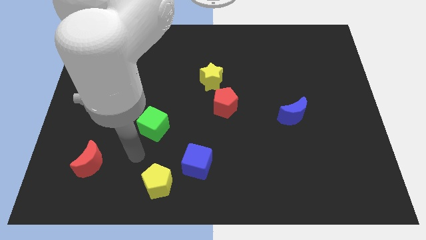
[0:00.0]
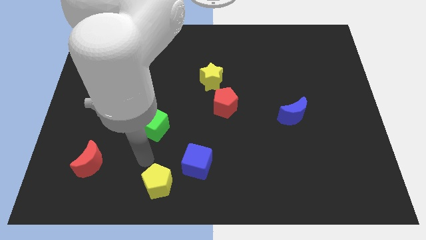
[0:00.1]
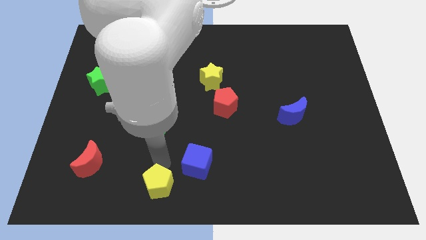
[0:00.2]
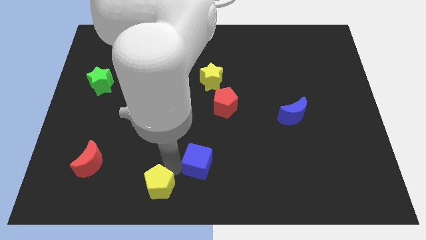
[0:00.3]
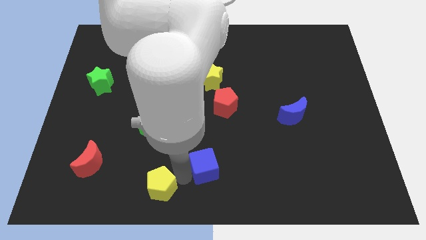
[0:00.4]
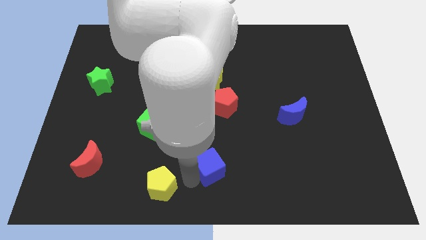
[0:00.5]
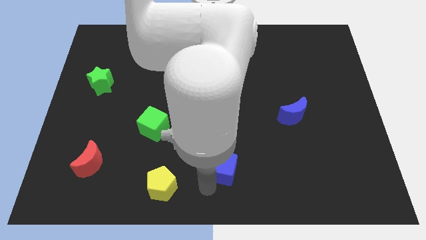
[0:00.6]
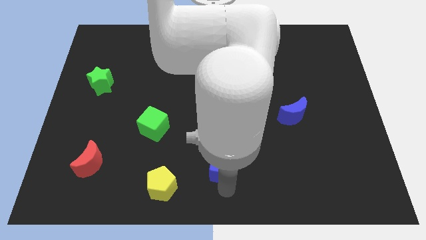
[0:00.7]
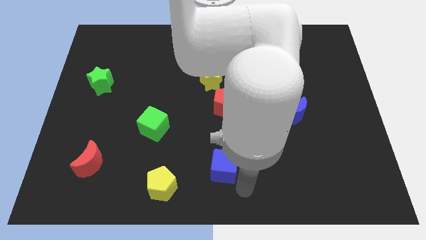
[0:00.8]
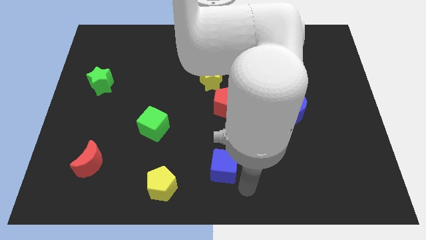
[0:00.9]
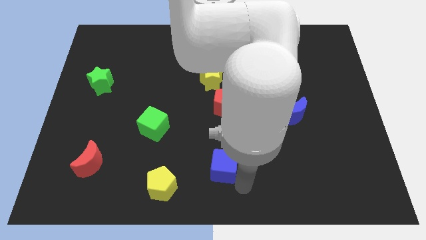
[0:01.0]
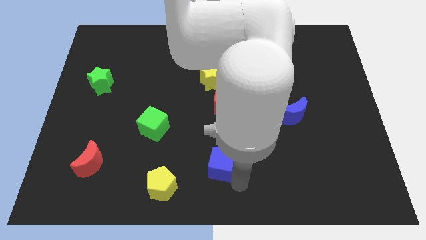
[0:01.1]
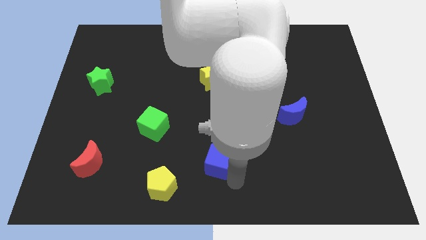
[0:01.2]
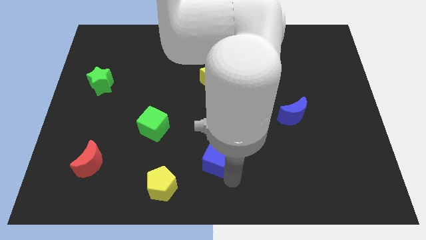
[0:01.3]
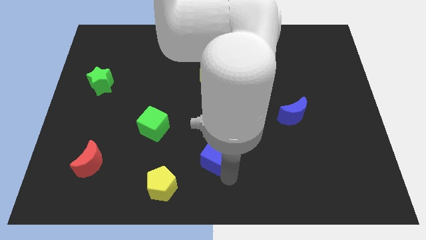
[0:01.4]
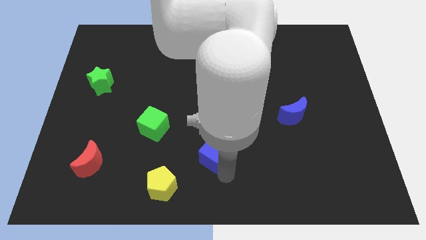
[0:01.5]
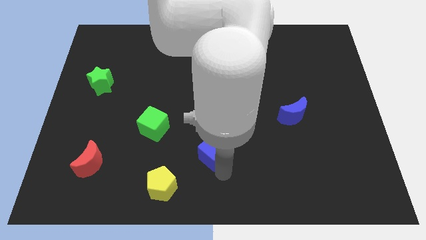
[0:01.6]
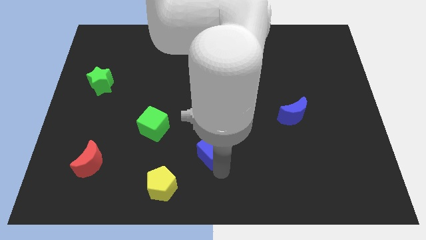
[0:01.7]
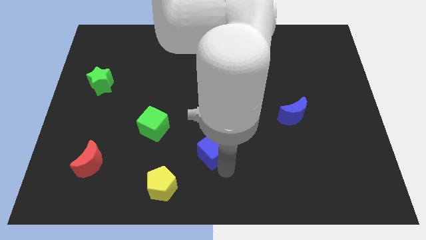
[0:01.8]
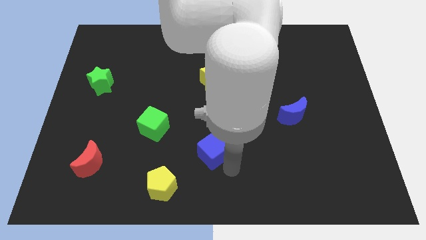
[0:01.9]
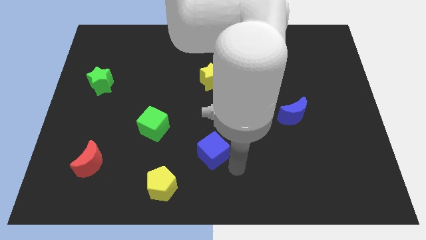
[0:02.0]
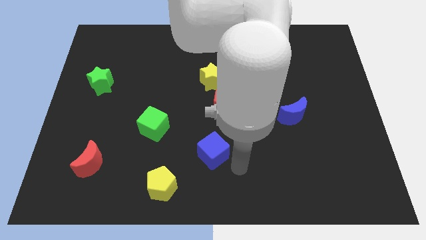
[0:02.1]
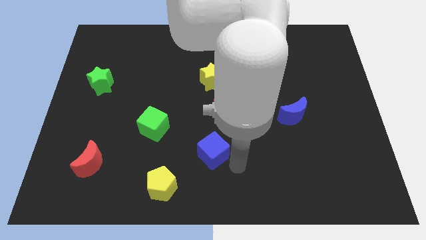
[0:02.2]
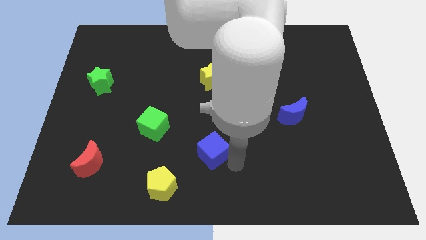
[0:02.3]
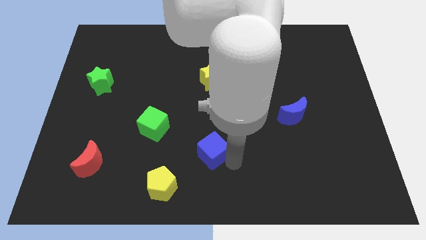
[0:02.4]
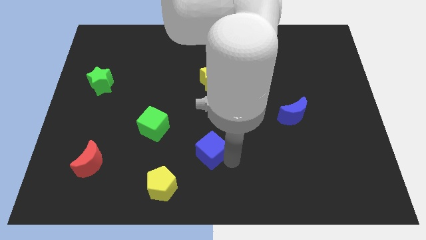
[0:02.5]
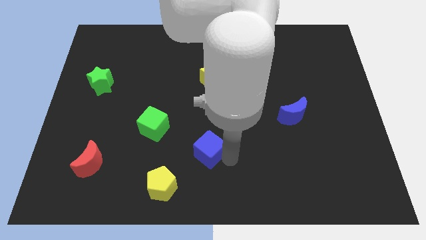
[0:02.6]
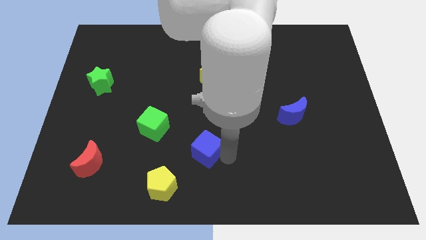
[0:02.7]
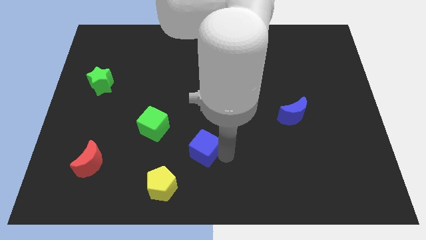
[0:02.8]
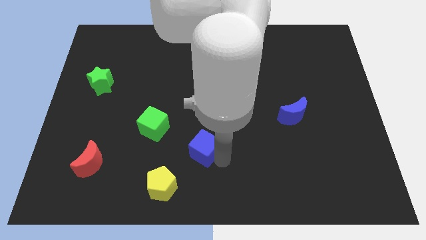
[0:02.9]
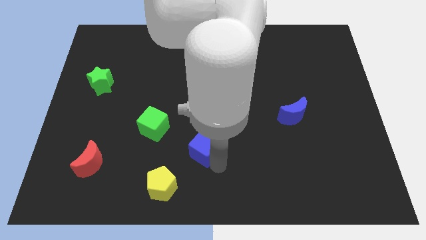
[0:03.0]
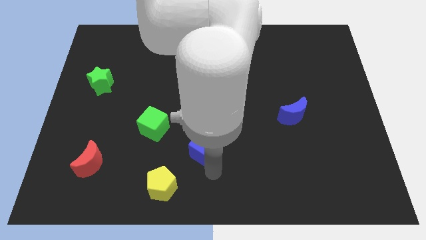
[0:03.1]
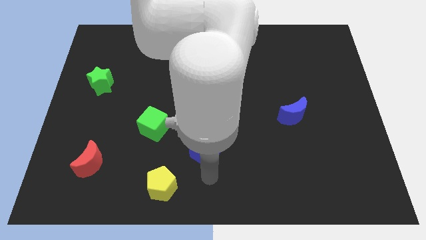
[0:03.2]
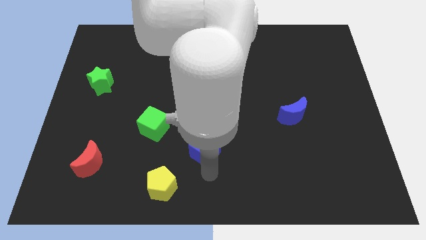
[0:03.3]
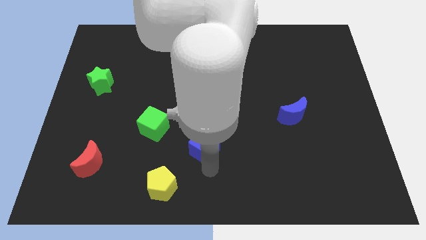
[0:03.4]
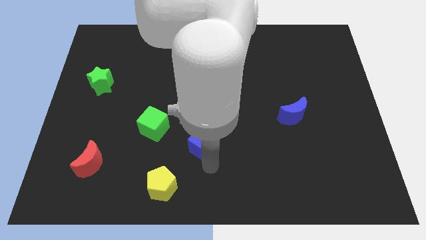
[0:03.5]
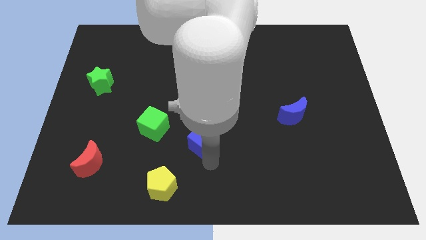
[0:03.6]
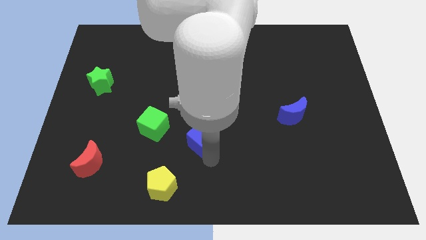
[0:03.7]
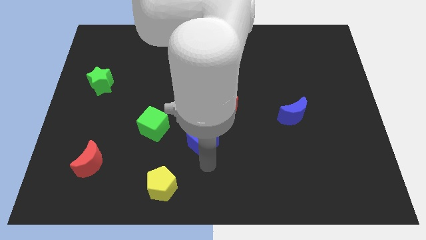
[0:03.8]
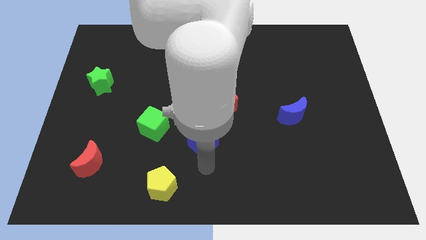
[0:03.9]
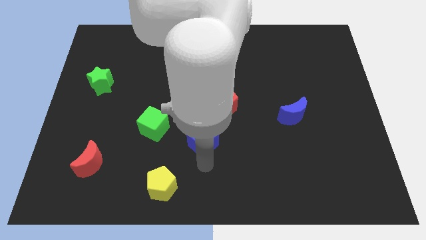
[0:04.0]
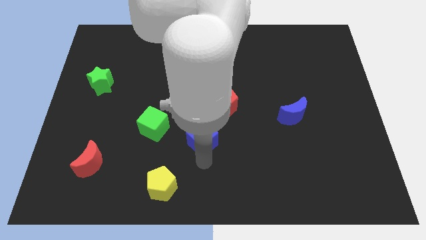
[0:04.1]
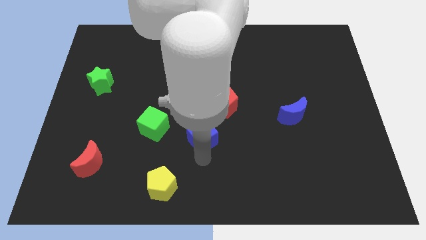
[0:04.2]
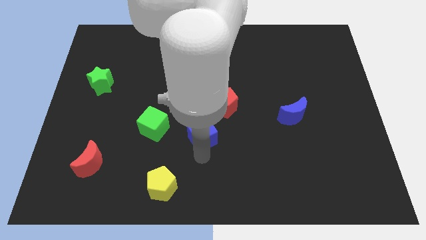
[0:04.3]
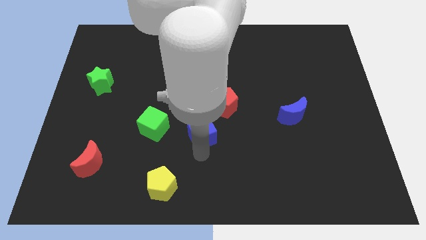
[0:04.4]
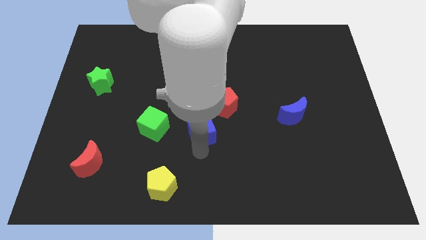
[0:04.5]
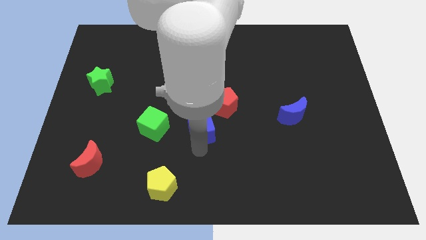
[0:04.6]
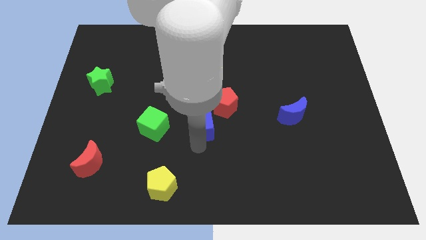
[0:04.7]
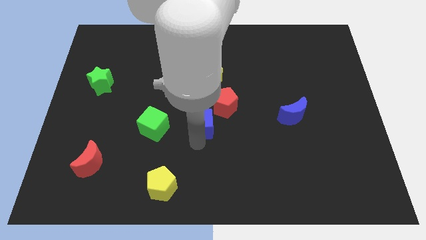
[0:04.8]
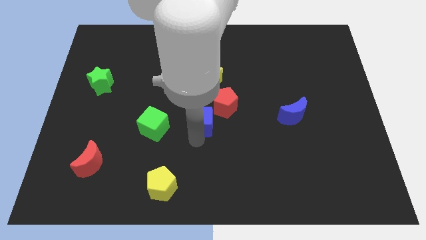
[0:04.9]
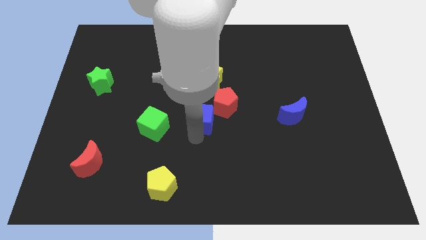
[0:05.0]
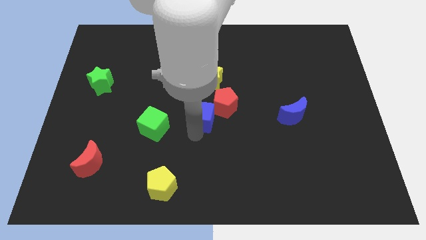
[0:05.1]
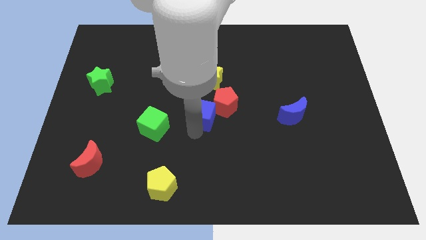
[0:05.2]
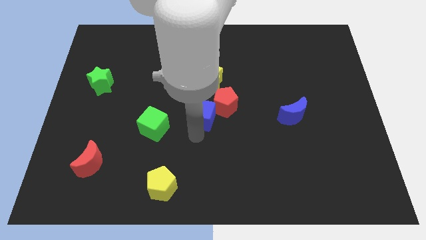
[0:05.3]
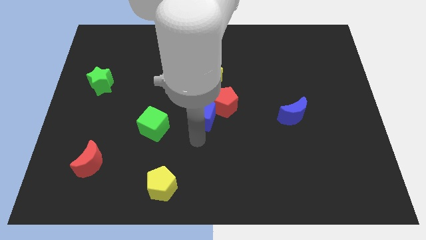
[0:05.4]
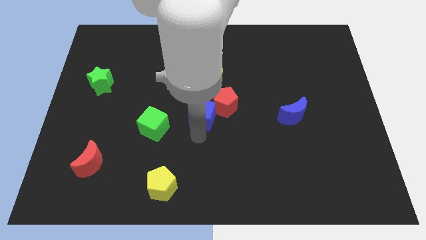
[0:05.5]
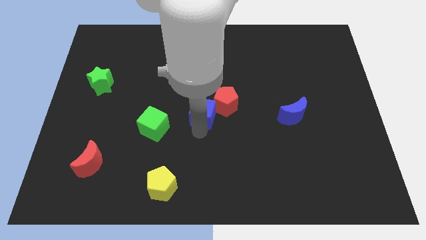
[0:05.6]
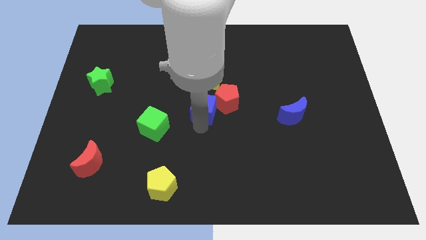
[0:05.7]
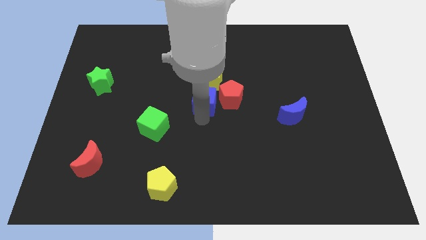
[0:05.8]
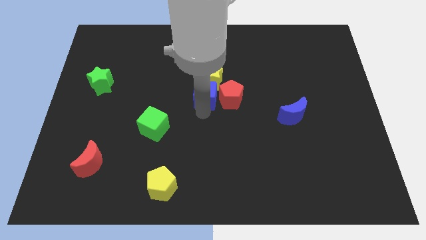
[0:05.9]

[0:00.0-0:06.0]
move the blue cube towards the yellow star

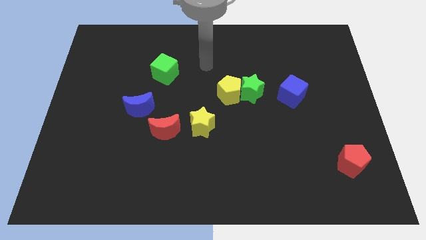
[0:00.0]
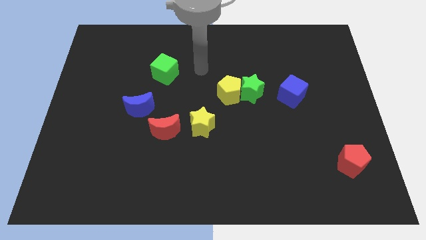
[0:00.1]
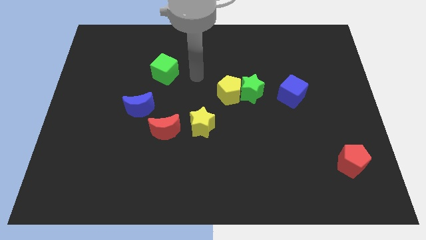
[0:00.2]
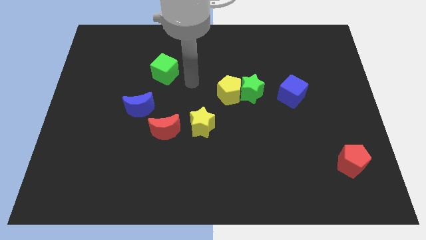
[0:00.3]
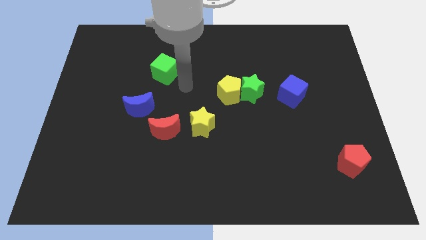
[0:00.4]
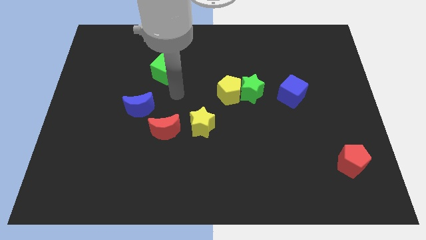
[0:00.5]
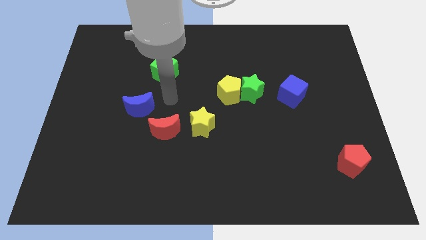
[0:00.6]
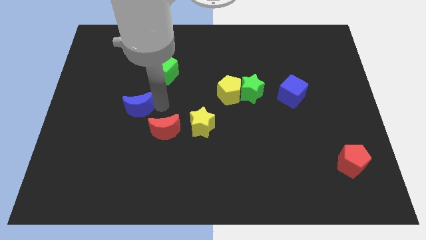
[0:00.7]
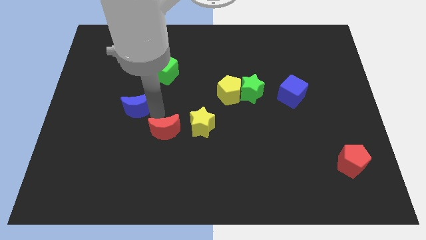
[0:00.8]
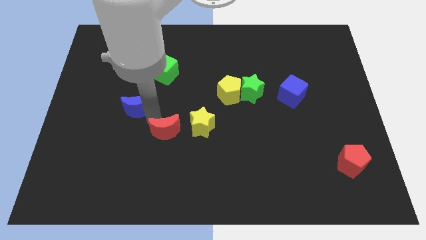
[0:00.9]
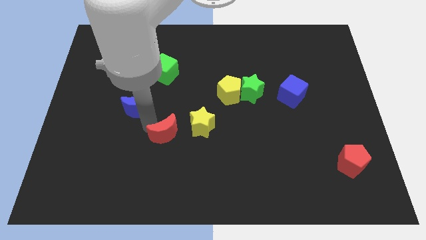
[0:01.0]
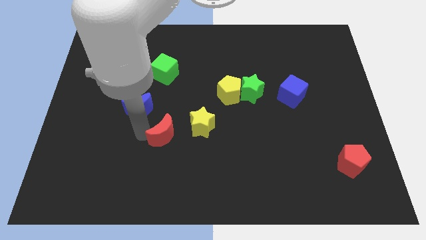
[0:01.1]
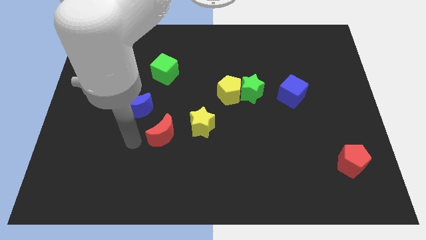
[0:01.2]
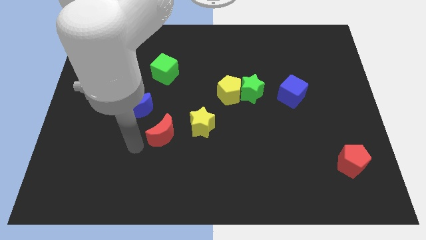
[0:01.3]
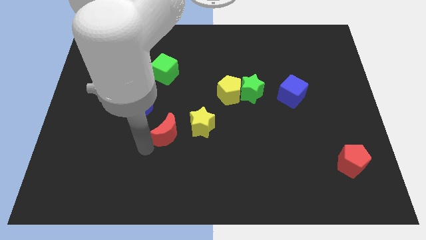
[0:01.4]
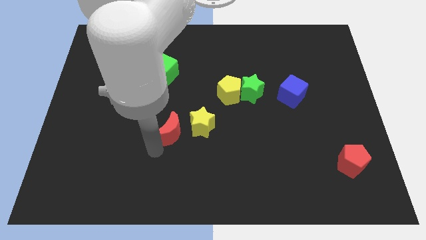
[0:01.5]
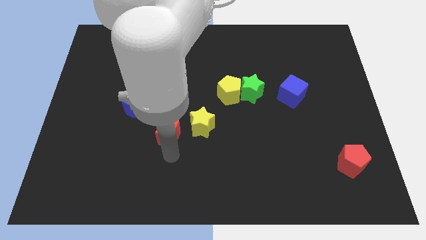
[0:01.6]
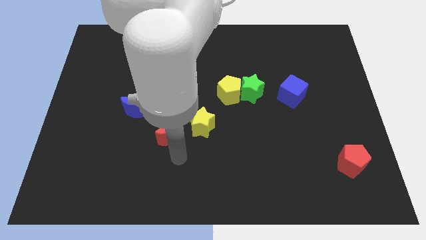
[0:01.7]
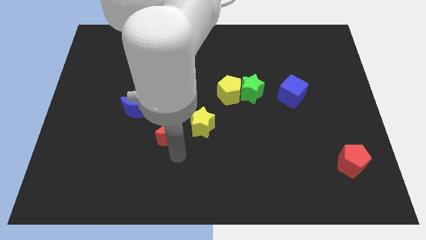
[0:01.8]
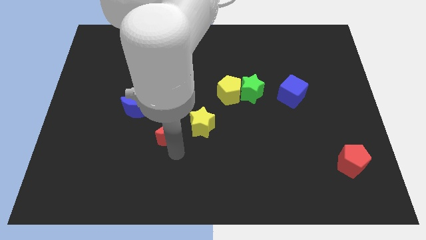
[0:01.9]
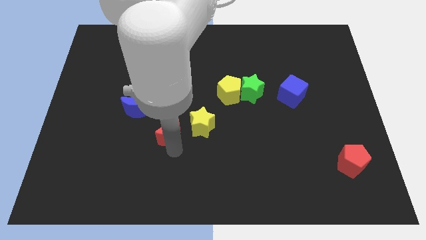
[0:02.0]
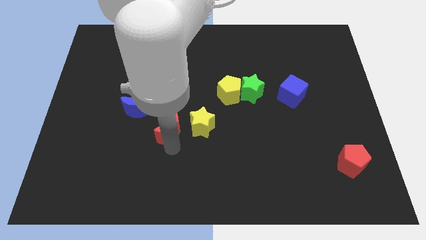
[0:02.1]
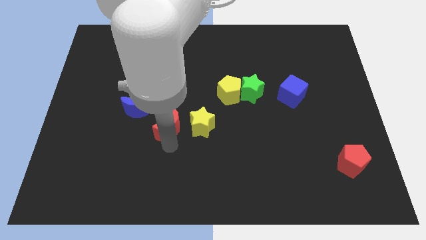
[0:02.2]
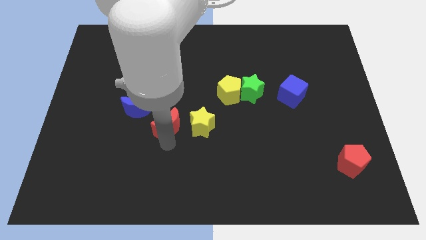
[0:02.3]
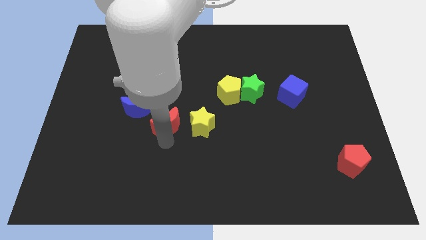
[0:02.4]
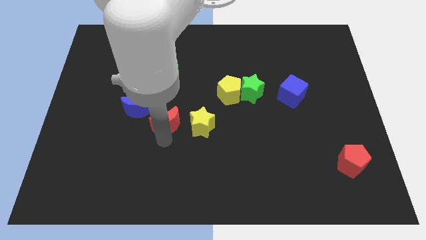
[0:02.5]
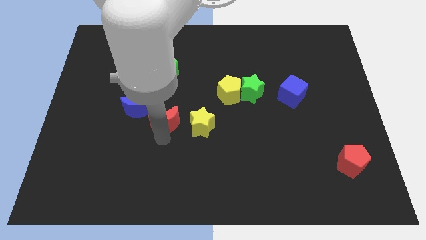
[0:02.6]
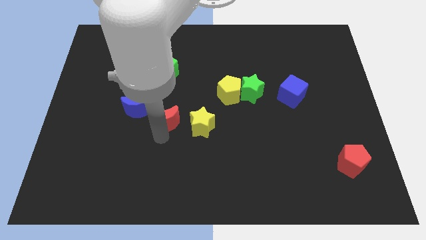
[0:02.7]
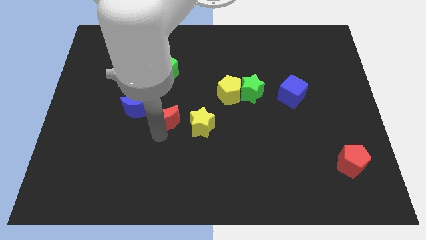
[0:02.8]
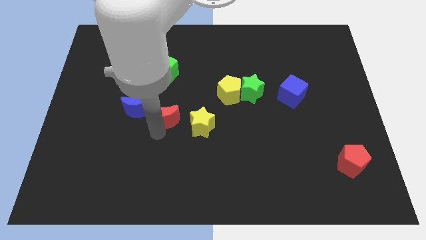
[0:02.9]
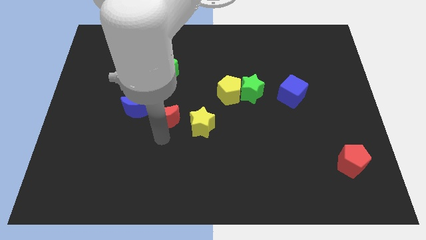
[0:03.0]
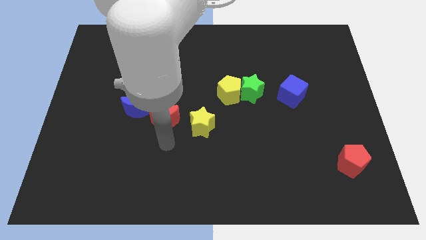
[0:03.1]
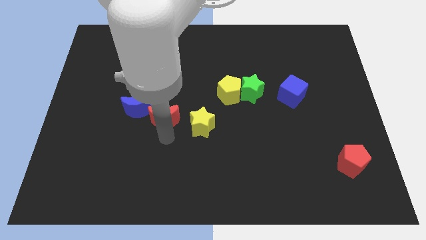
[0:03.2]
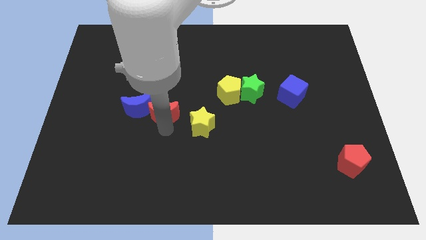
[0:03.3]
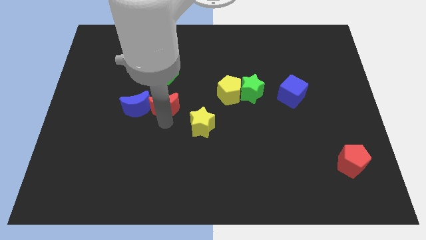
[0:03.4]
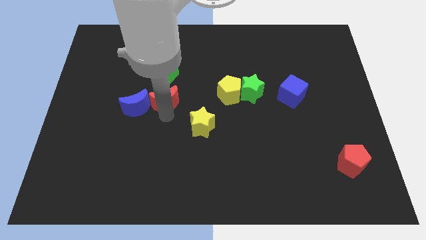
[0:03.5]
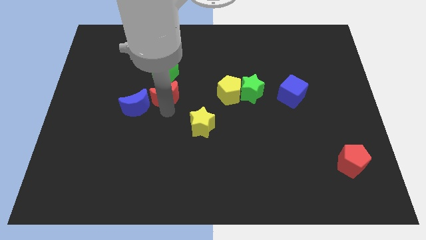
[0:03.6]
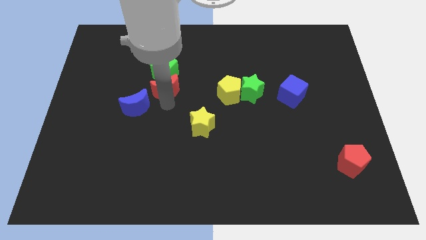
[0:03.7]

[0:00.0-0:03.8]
slide the red moon to the green cube
